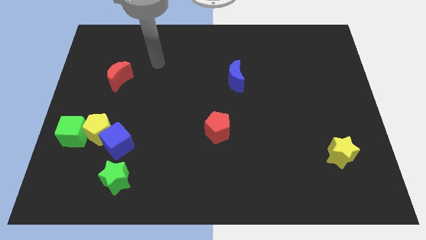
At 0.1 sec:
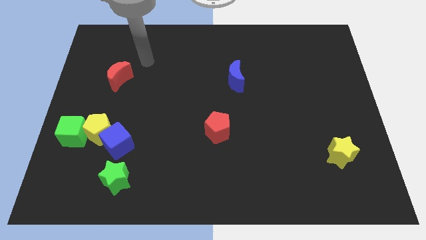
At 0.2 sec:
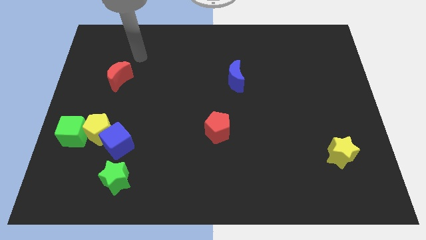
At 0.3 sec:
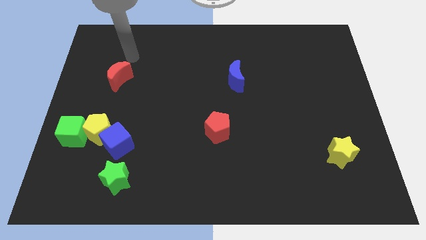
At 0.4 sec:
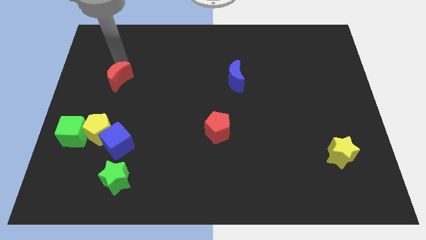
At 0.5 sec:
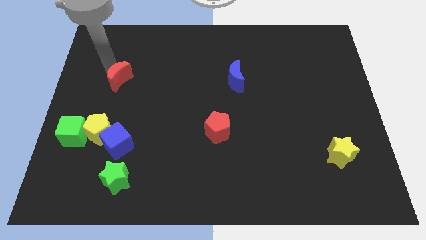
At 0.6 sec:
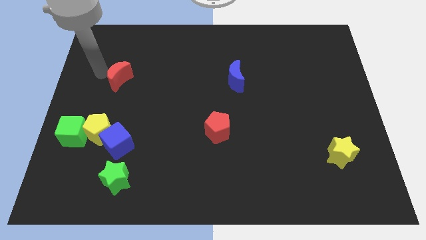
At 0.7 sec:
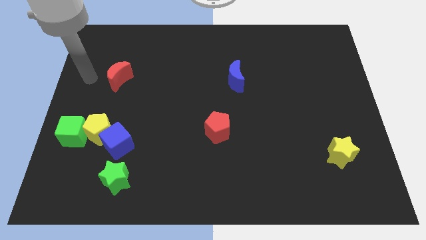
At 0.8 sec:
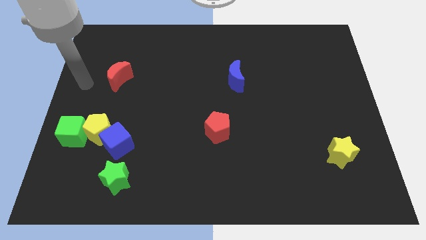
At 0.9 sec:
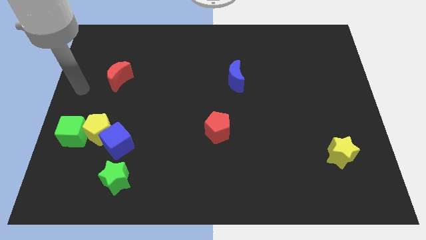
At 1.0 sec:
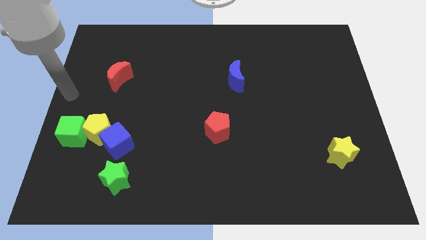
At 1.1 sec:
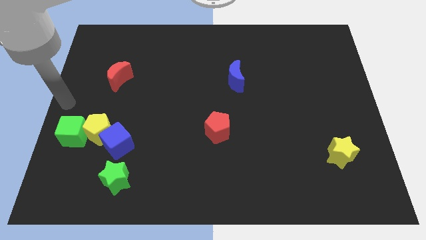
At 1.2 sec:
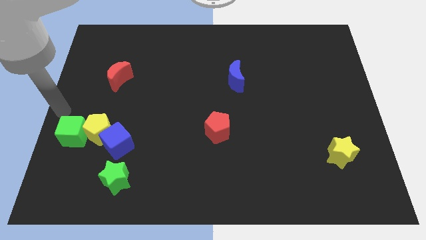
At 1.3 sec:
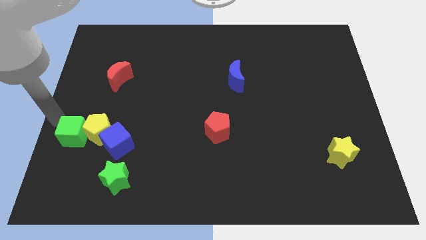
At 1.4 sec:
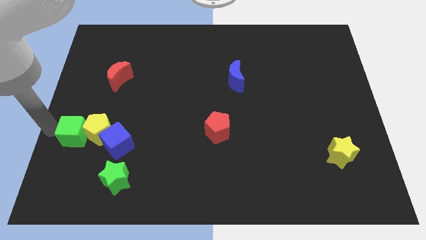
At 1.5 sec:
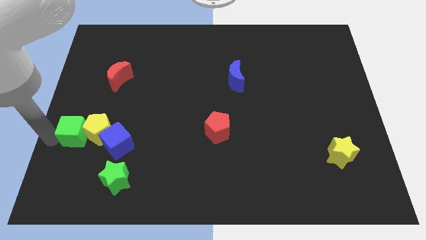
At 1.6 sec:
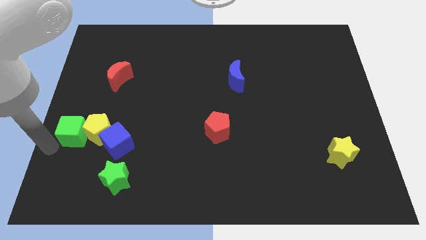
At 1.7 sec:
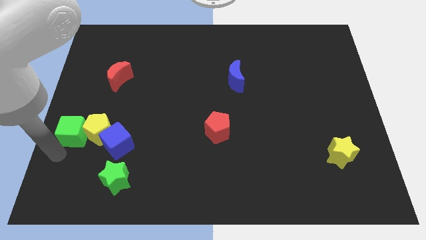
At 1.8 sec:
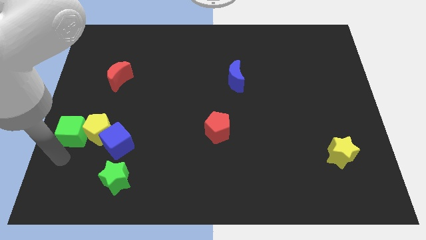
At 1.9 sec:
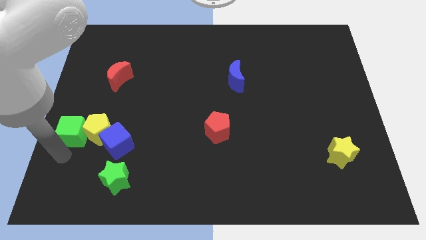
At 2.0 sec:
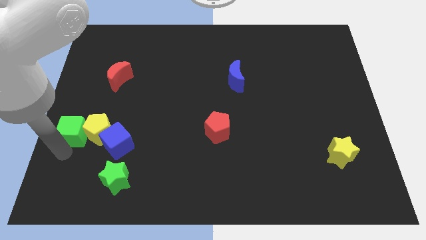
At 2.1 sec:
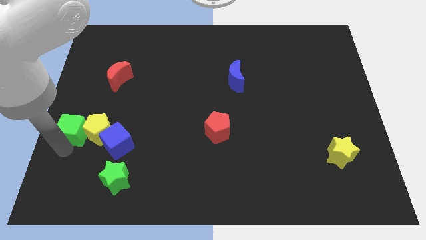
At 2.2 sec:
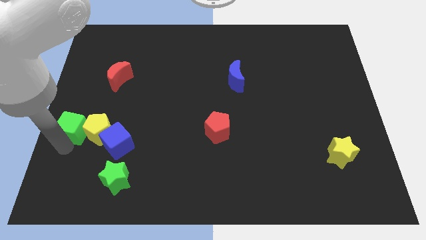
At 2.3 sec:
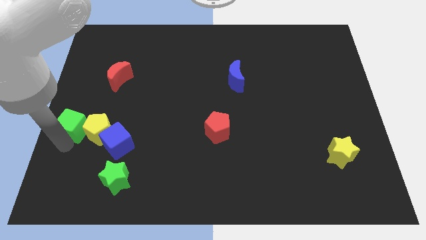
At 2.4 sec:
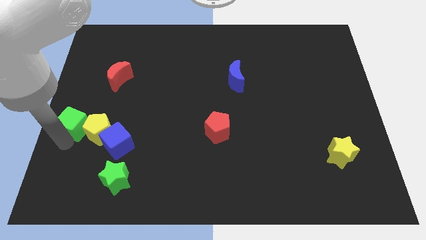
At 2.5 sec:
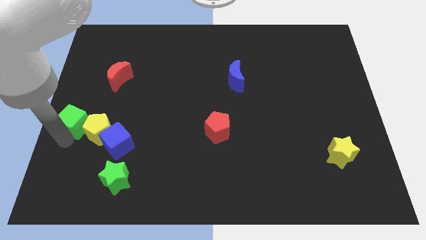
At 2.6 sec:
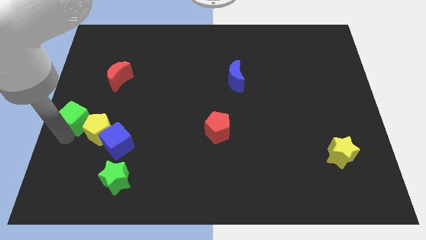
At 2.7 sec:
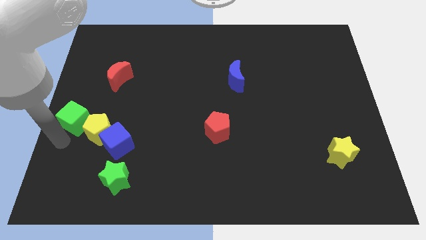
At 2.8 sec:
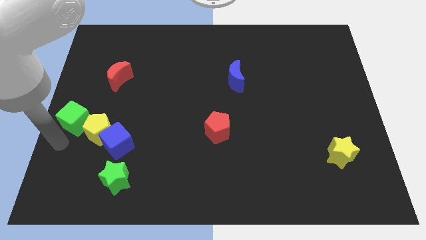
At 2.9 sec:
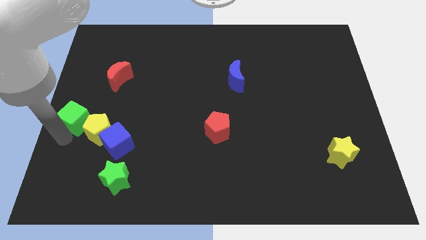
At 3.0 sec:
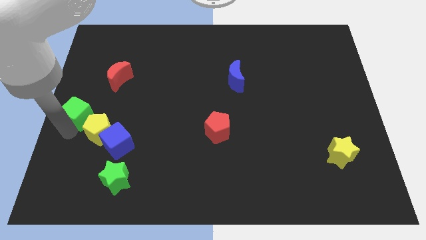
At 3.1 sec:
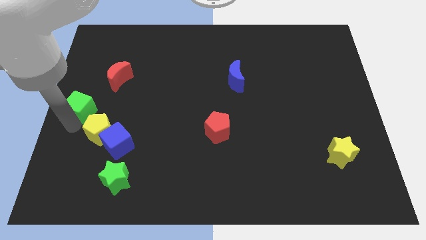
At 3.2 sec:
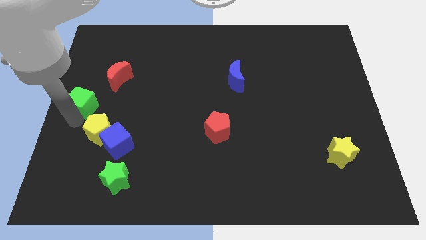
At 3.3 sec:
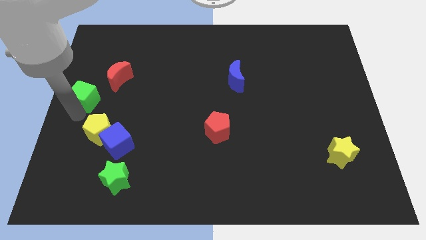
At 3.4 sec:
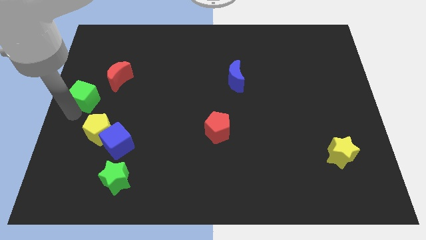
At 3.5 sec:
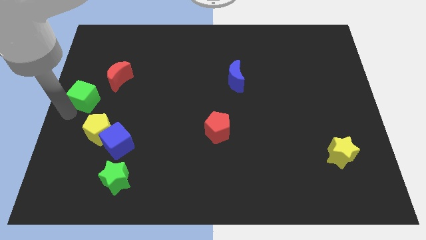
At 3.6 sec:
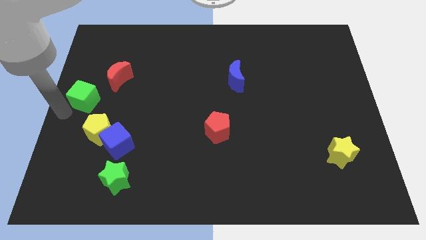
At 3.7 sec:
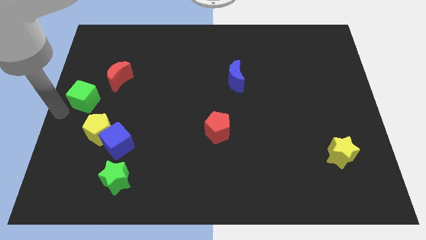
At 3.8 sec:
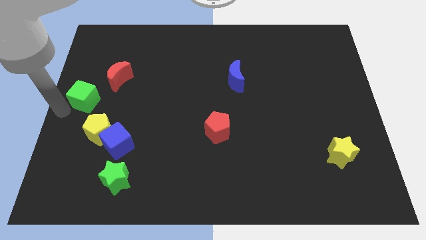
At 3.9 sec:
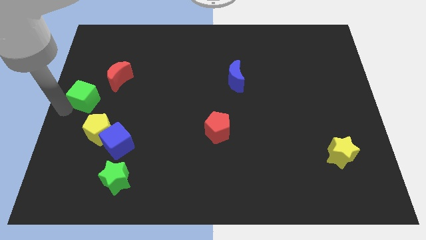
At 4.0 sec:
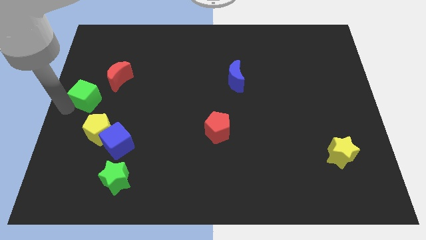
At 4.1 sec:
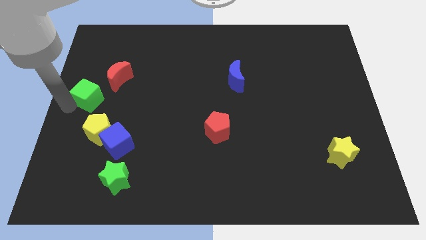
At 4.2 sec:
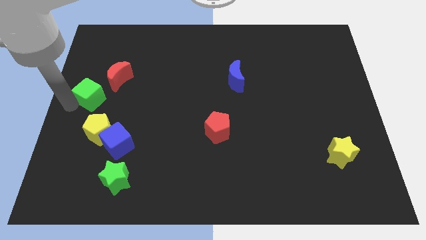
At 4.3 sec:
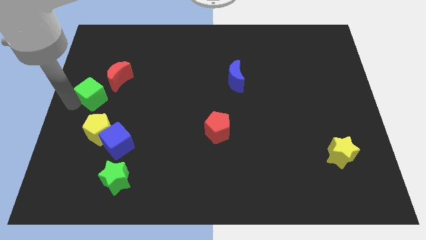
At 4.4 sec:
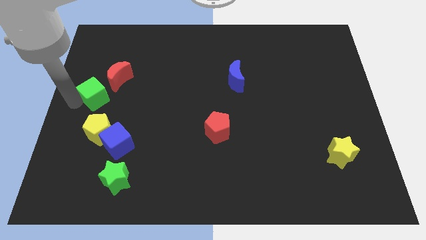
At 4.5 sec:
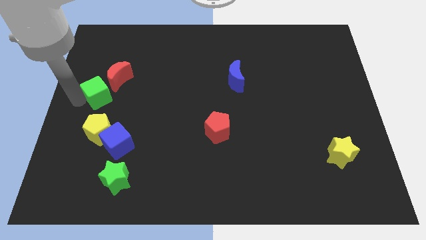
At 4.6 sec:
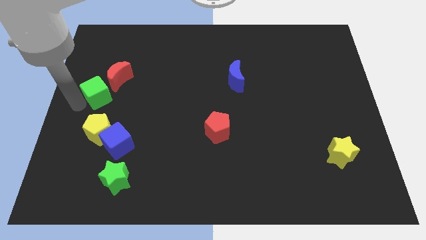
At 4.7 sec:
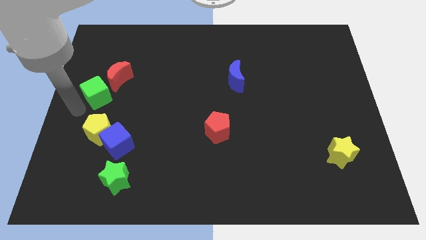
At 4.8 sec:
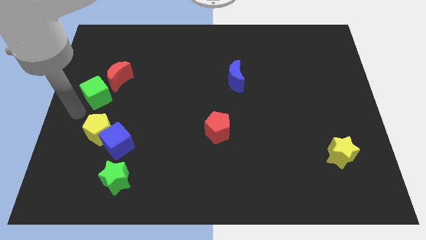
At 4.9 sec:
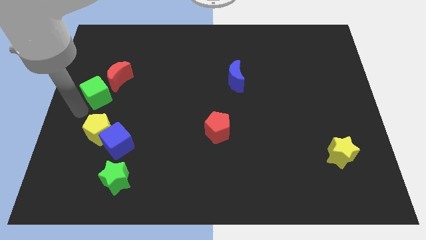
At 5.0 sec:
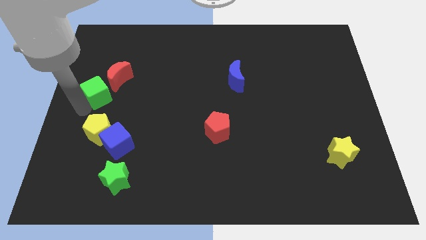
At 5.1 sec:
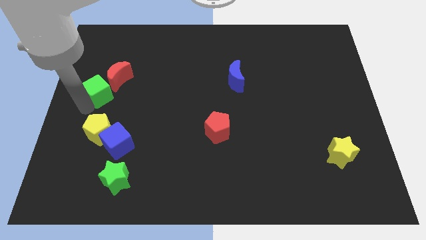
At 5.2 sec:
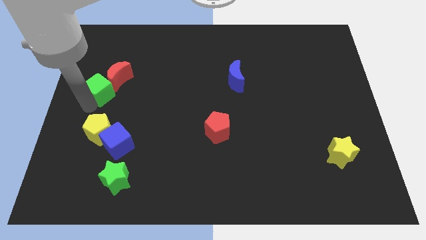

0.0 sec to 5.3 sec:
push the green cube to the red moon

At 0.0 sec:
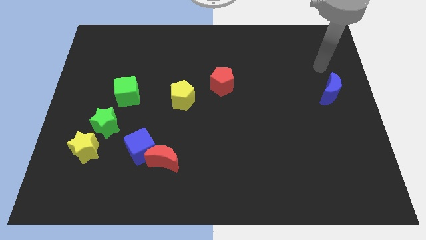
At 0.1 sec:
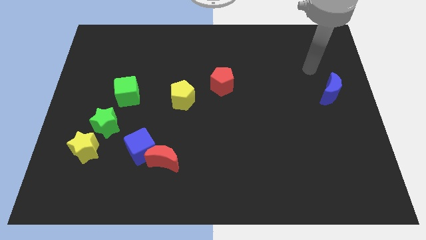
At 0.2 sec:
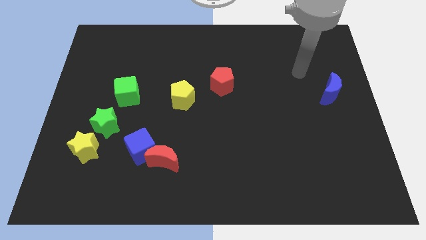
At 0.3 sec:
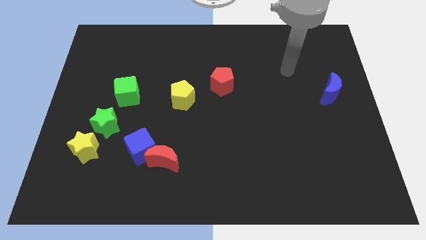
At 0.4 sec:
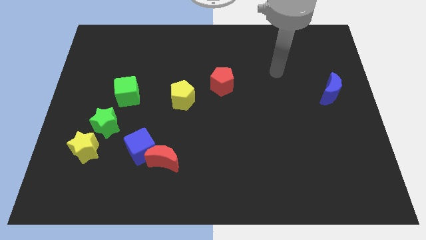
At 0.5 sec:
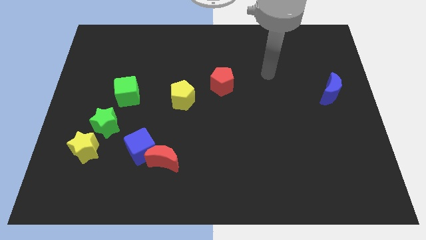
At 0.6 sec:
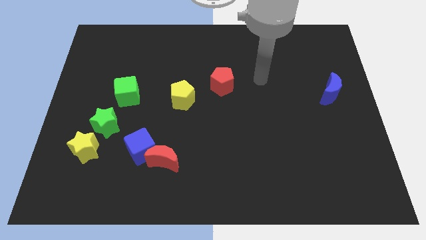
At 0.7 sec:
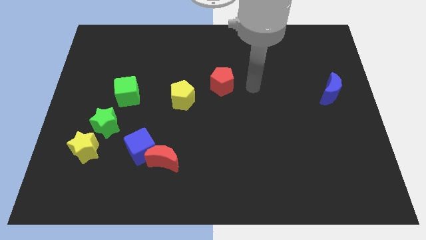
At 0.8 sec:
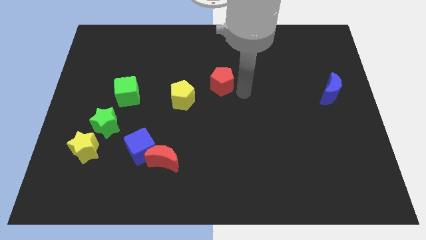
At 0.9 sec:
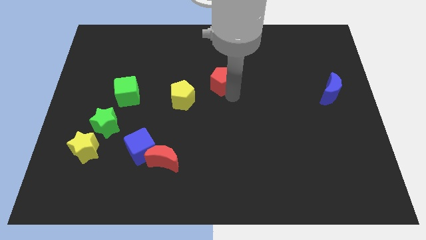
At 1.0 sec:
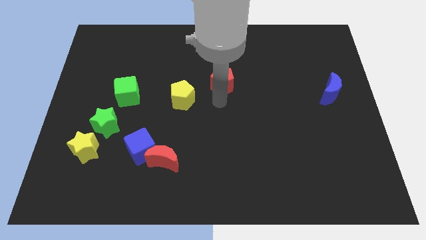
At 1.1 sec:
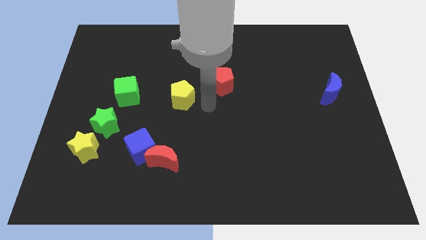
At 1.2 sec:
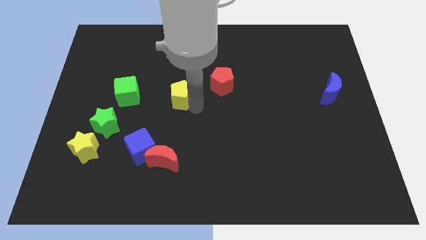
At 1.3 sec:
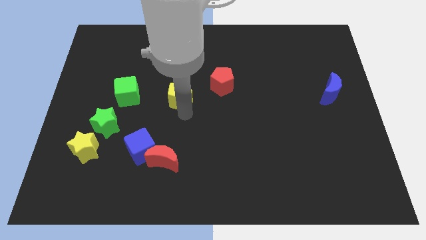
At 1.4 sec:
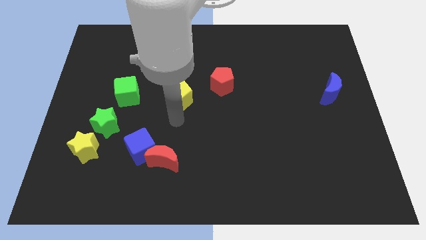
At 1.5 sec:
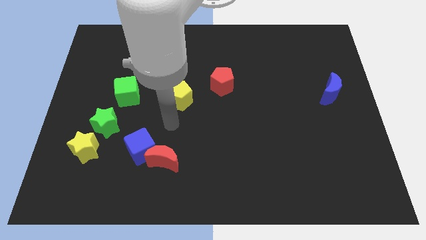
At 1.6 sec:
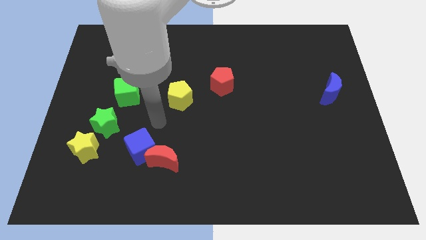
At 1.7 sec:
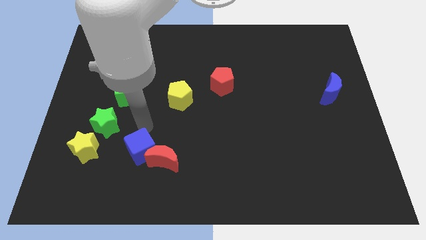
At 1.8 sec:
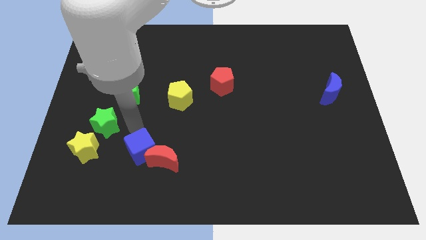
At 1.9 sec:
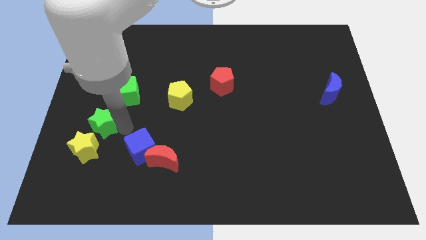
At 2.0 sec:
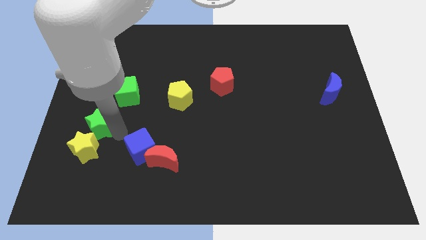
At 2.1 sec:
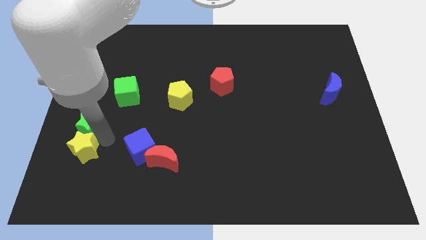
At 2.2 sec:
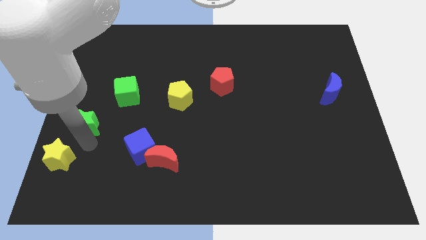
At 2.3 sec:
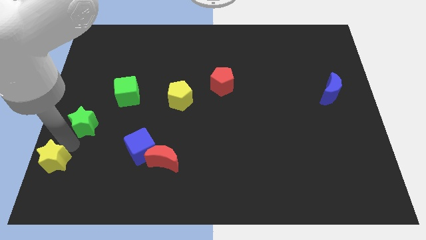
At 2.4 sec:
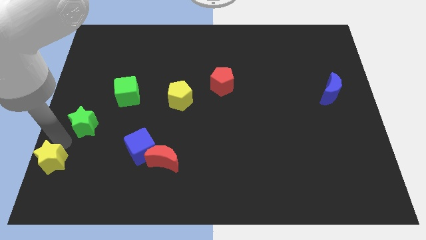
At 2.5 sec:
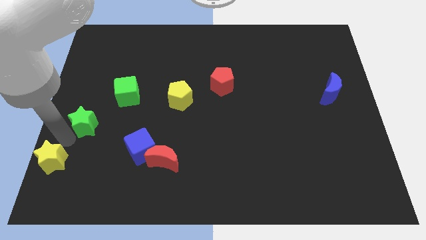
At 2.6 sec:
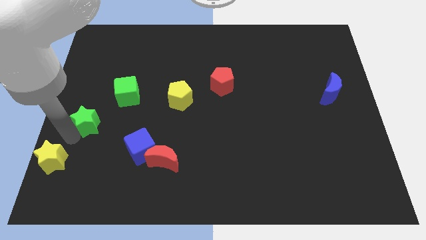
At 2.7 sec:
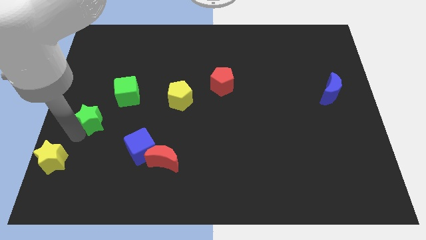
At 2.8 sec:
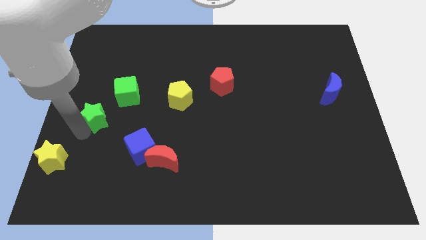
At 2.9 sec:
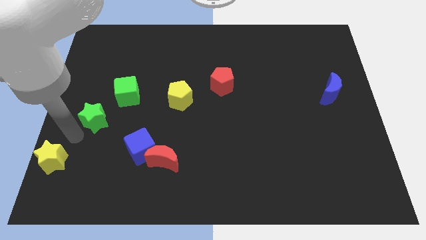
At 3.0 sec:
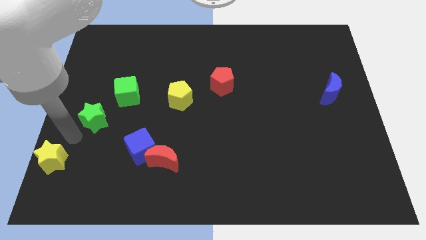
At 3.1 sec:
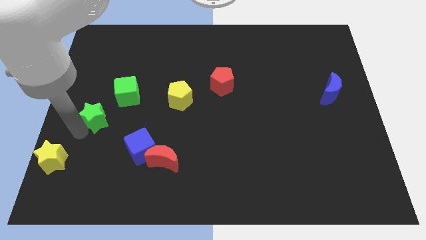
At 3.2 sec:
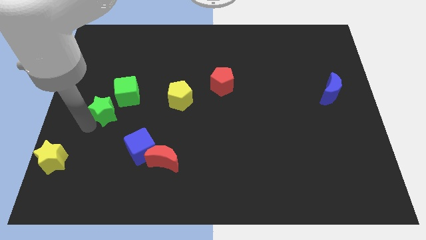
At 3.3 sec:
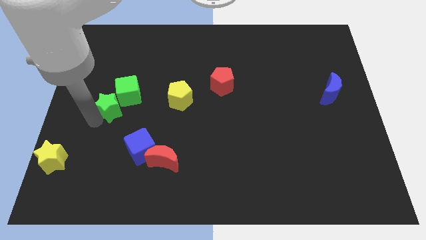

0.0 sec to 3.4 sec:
move the green star to the green cube
